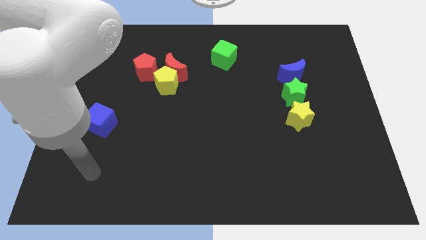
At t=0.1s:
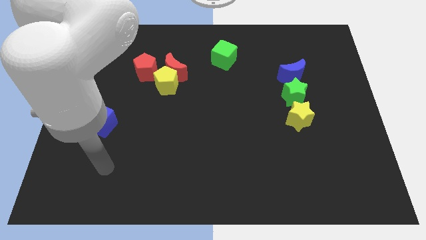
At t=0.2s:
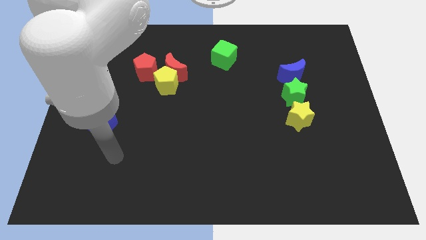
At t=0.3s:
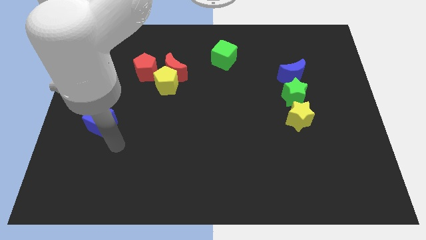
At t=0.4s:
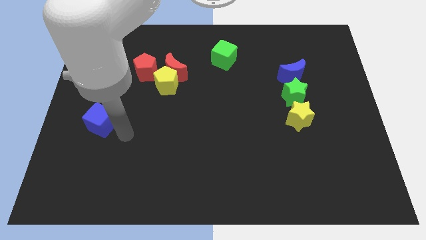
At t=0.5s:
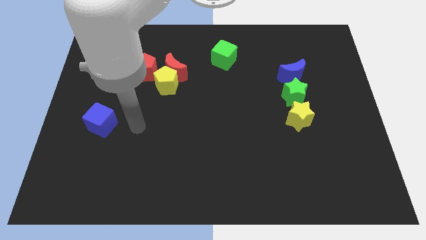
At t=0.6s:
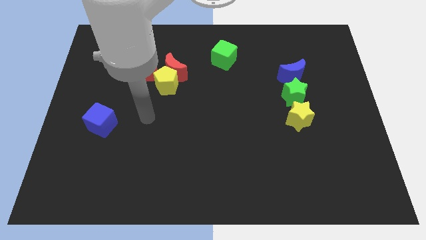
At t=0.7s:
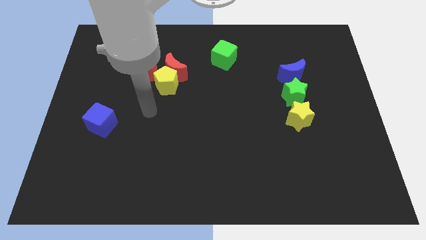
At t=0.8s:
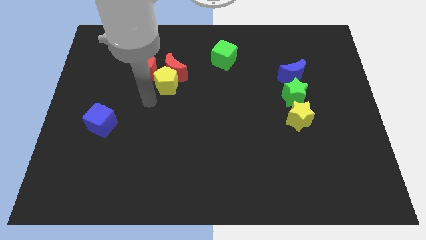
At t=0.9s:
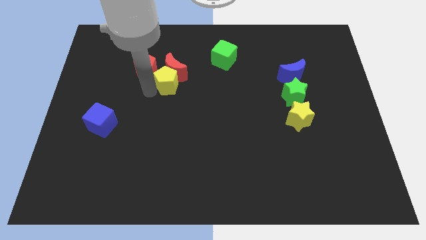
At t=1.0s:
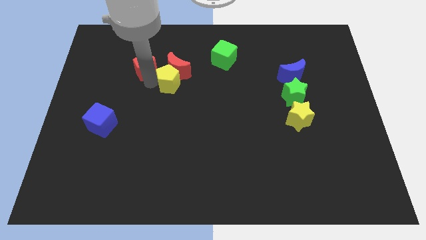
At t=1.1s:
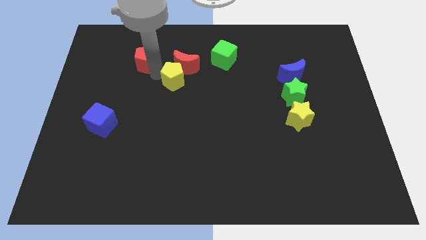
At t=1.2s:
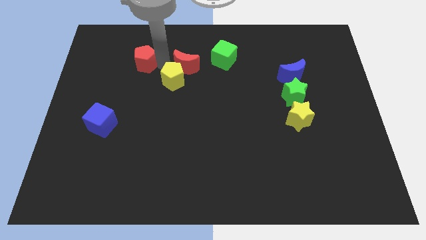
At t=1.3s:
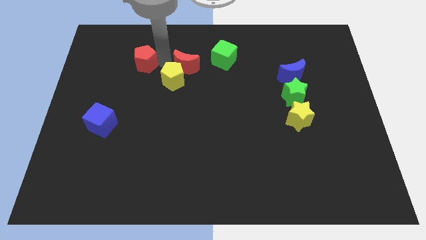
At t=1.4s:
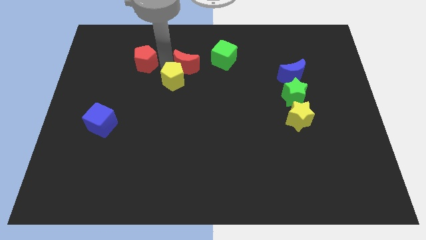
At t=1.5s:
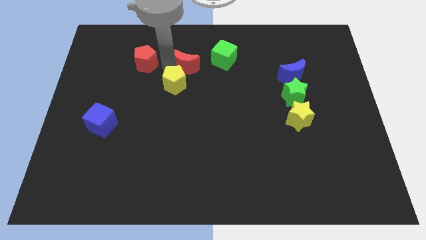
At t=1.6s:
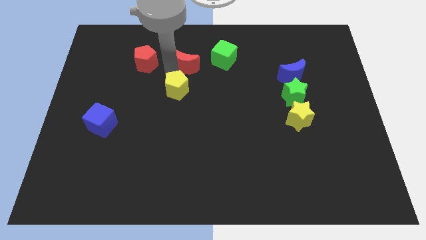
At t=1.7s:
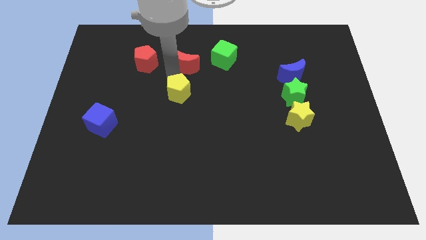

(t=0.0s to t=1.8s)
separate the yellow pentagon from the red moon and red pentagon

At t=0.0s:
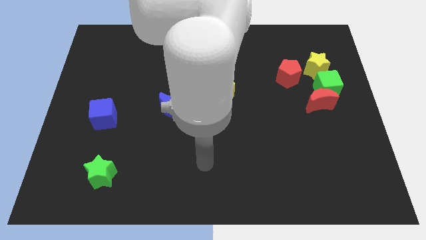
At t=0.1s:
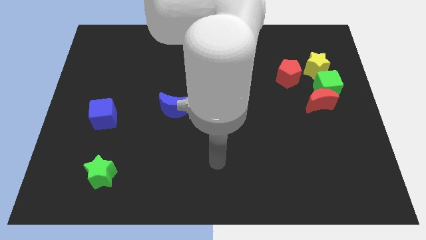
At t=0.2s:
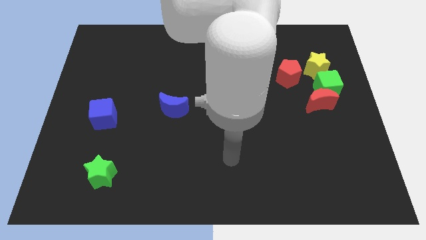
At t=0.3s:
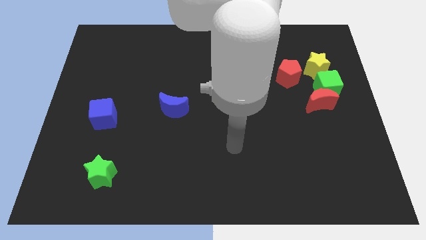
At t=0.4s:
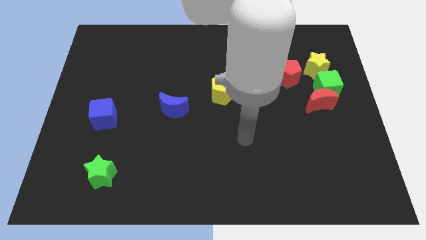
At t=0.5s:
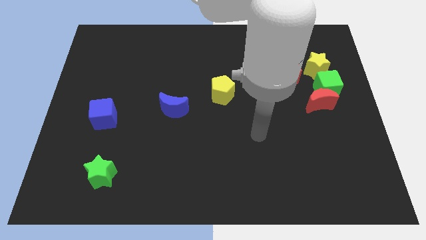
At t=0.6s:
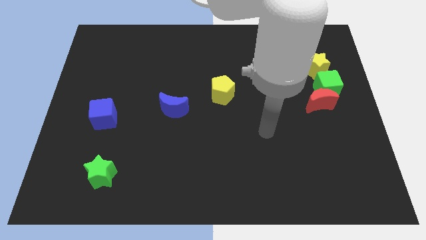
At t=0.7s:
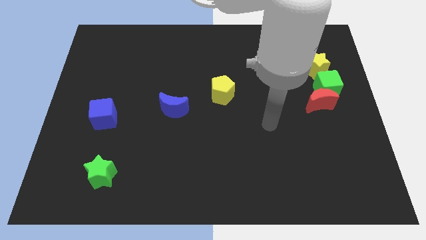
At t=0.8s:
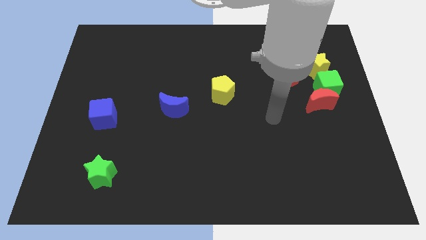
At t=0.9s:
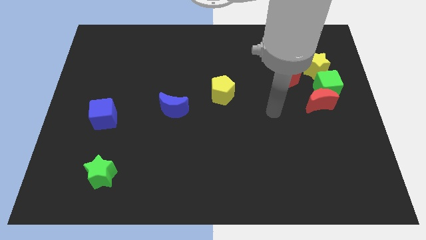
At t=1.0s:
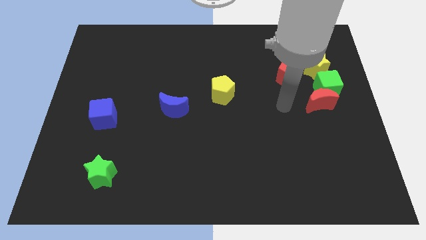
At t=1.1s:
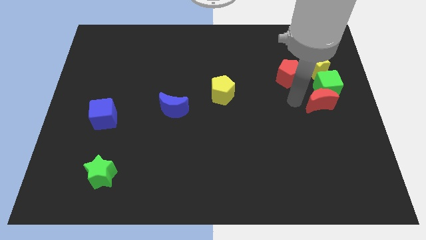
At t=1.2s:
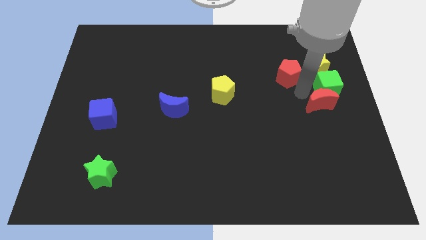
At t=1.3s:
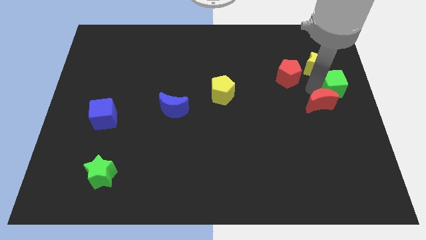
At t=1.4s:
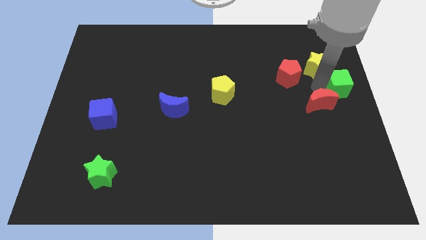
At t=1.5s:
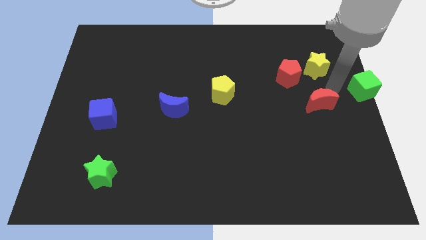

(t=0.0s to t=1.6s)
separate the red moon from the green cube

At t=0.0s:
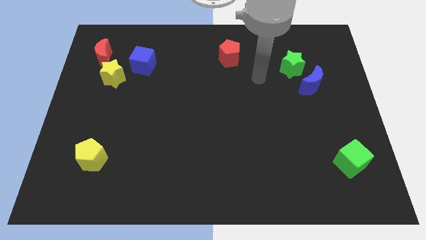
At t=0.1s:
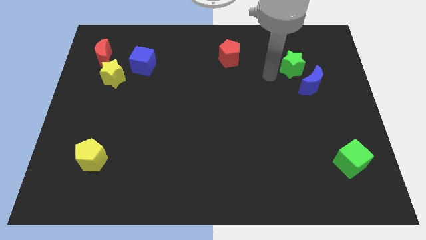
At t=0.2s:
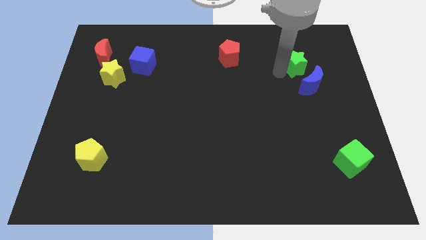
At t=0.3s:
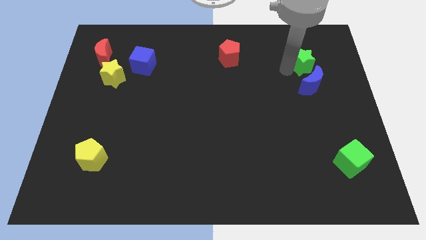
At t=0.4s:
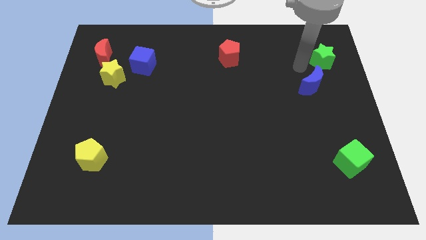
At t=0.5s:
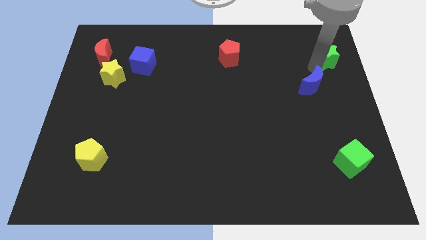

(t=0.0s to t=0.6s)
move the blue moon away from the green star

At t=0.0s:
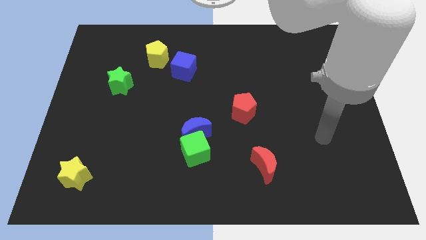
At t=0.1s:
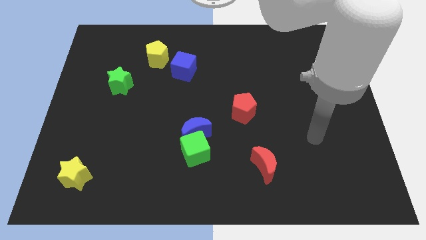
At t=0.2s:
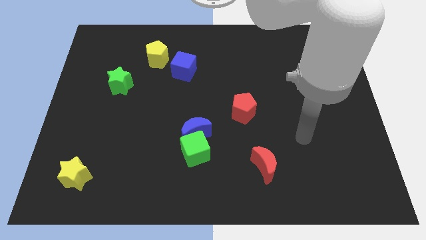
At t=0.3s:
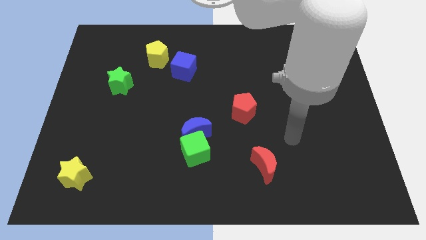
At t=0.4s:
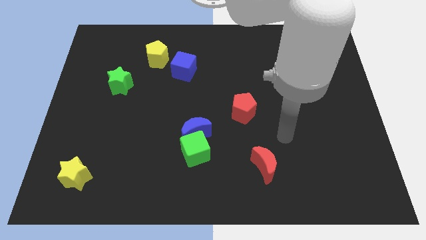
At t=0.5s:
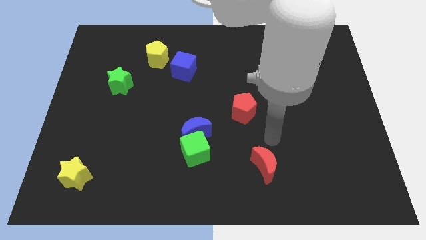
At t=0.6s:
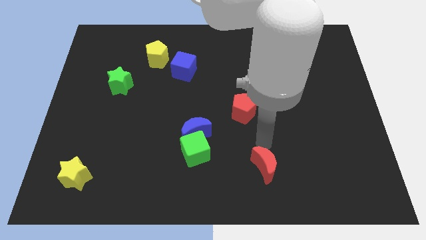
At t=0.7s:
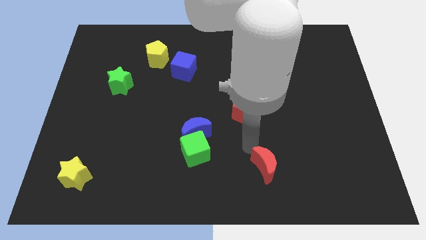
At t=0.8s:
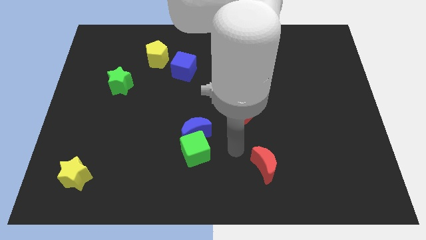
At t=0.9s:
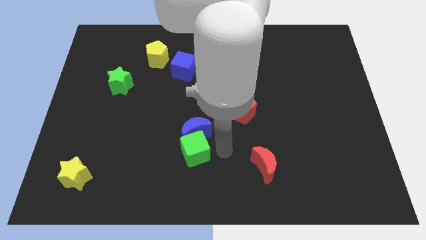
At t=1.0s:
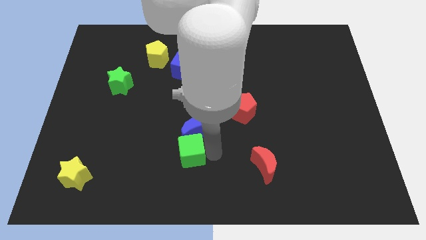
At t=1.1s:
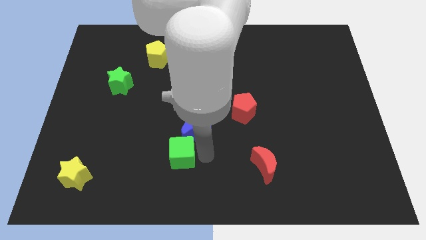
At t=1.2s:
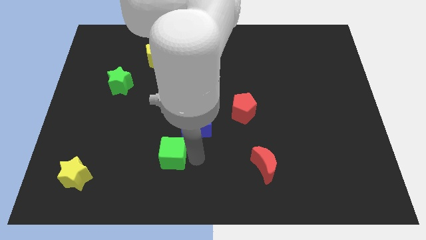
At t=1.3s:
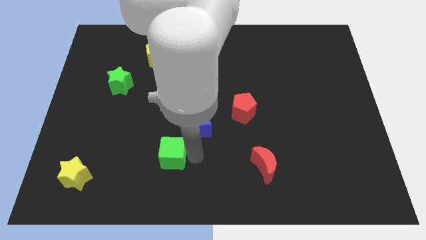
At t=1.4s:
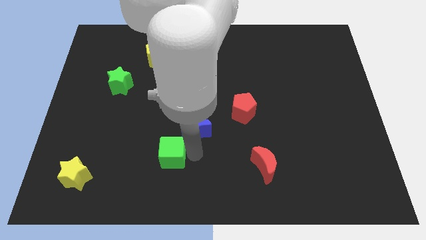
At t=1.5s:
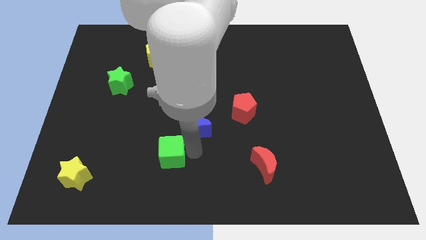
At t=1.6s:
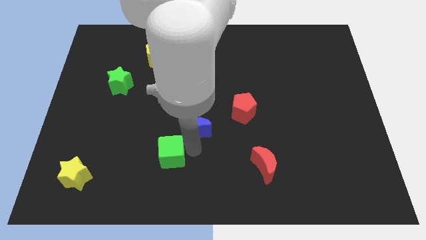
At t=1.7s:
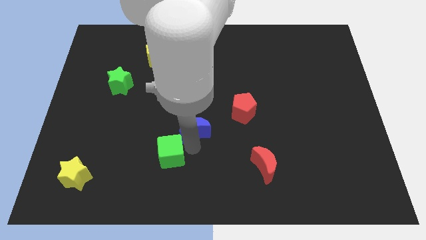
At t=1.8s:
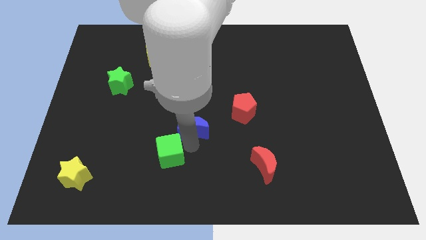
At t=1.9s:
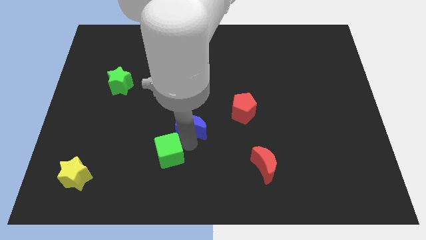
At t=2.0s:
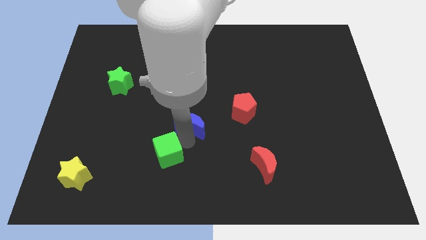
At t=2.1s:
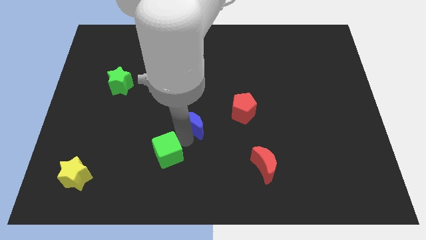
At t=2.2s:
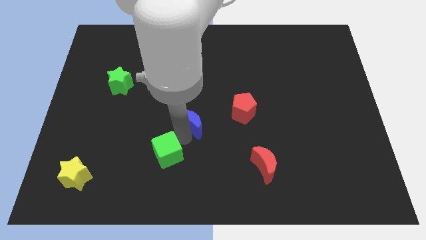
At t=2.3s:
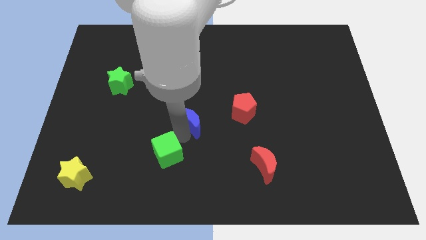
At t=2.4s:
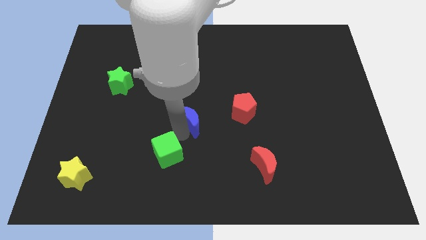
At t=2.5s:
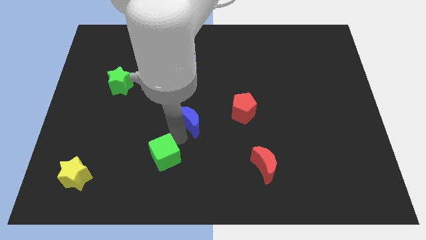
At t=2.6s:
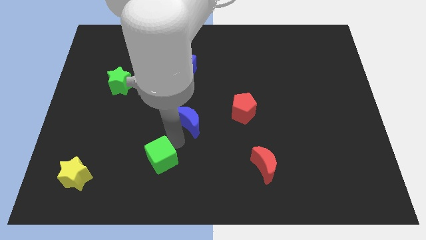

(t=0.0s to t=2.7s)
separate the blue moon from the green cube

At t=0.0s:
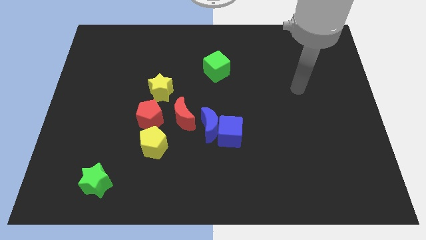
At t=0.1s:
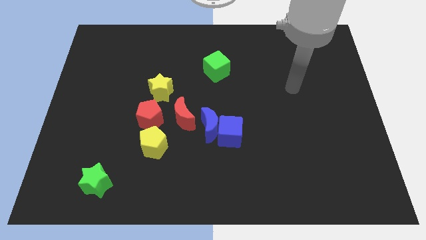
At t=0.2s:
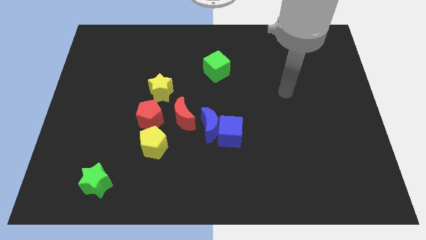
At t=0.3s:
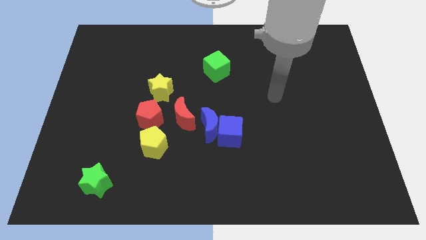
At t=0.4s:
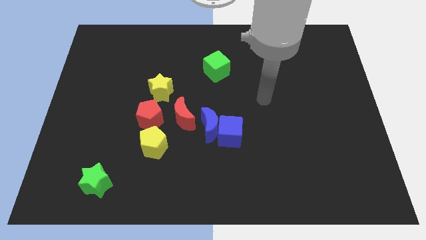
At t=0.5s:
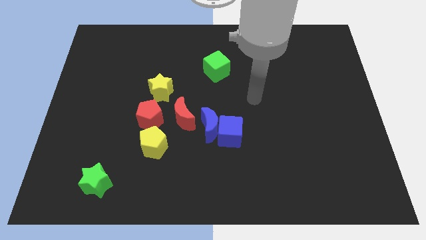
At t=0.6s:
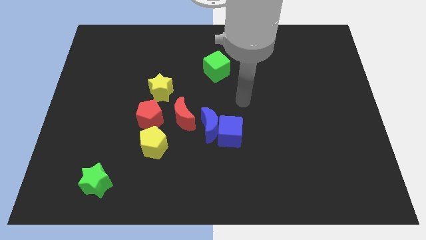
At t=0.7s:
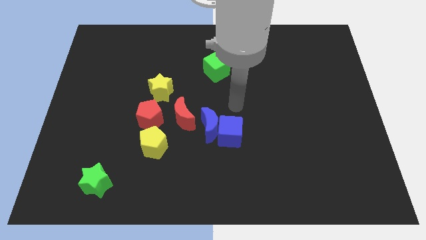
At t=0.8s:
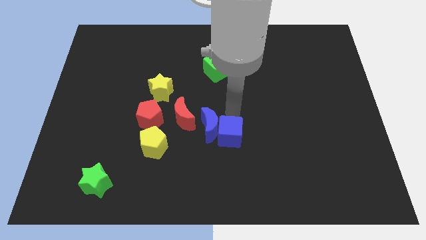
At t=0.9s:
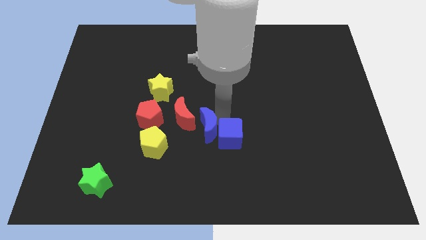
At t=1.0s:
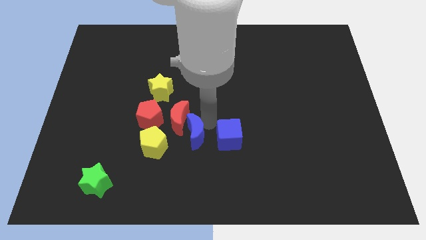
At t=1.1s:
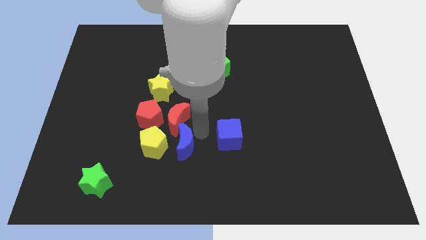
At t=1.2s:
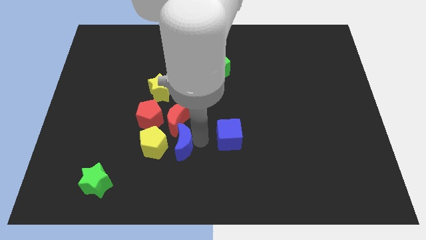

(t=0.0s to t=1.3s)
pull the blue cube apart from the blue moon

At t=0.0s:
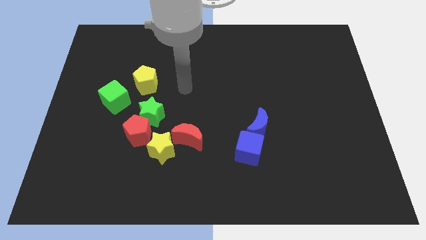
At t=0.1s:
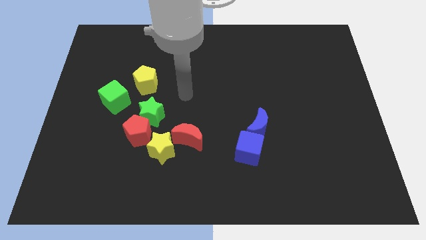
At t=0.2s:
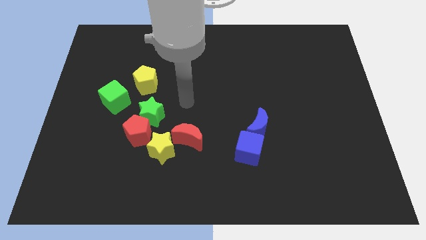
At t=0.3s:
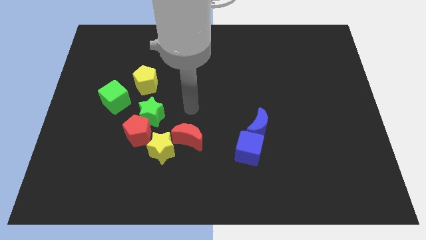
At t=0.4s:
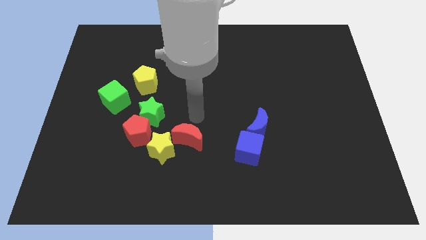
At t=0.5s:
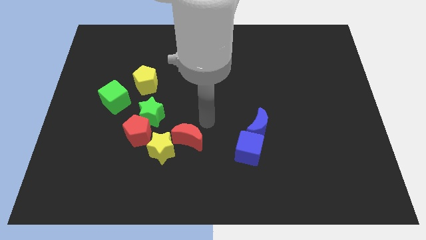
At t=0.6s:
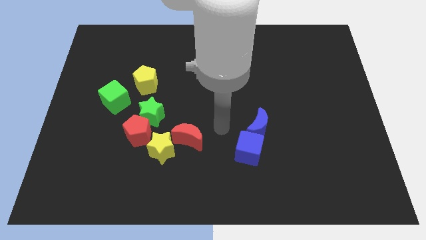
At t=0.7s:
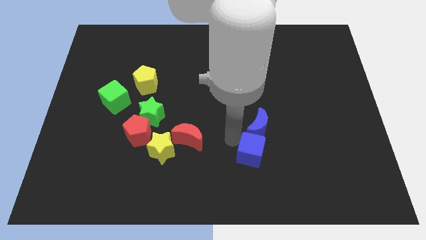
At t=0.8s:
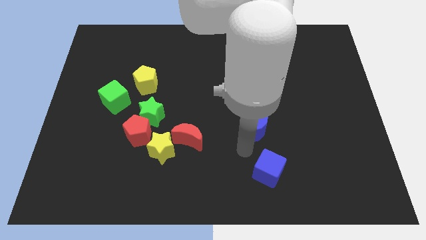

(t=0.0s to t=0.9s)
separate the blue moon from the blue cube

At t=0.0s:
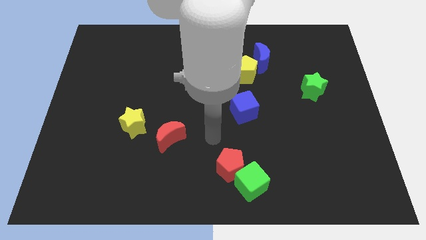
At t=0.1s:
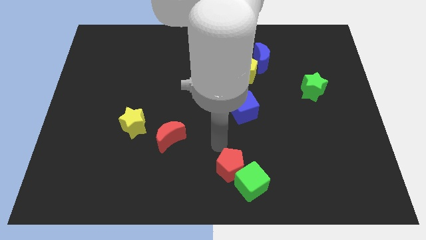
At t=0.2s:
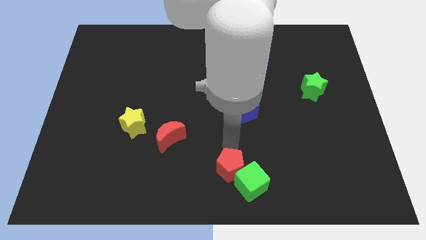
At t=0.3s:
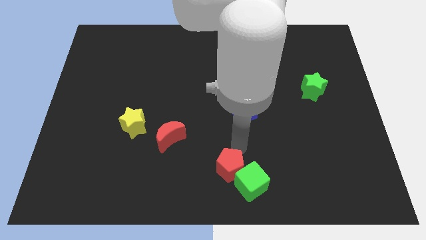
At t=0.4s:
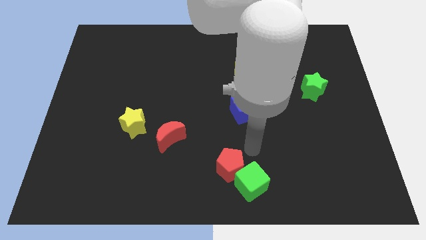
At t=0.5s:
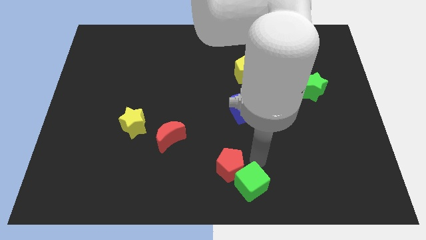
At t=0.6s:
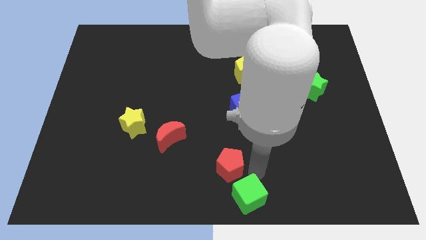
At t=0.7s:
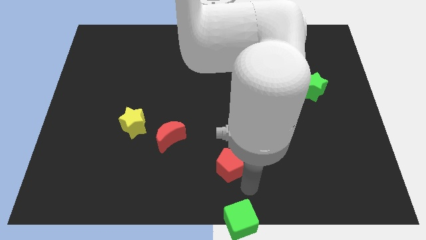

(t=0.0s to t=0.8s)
separate the red pentagon from the green cube
